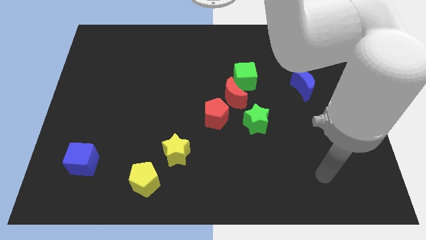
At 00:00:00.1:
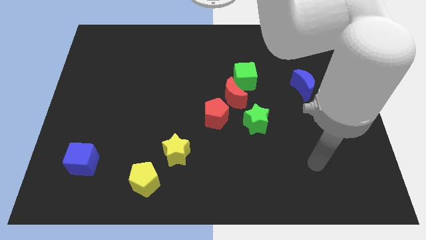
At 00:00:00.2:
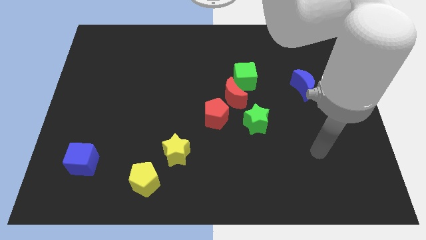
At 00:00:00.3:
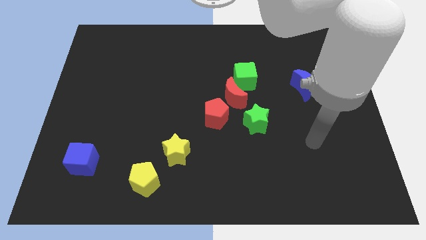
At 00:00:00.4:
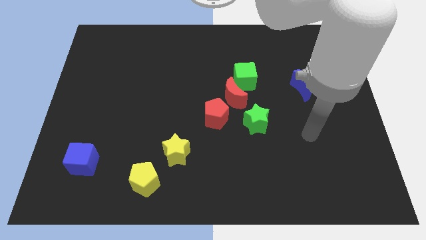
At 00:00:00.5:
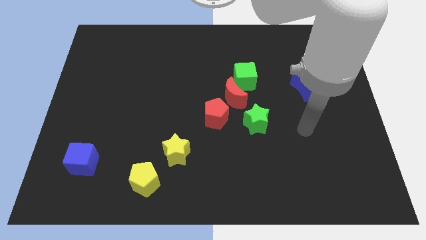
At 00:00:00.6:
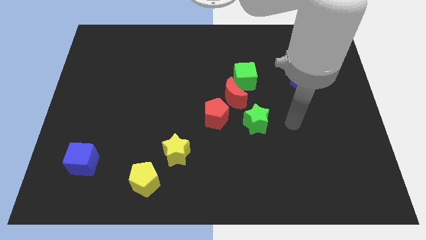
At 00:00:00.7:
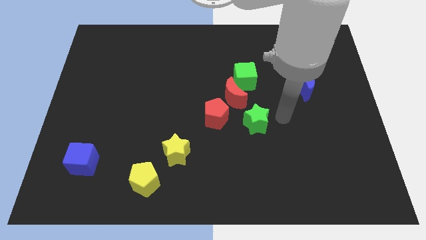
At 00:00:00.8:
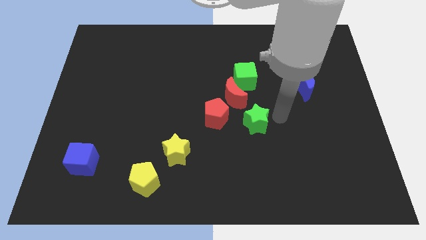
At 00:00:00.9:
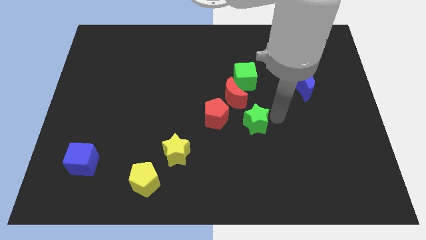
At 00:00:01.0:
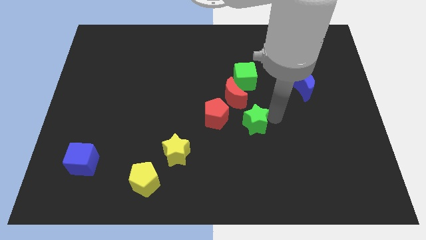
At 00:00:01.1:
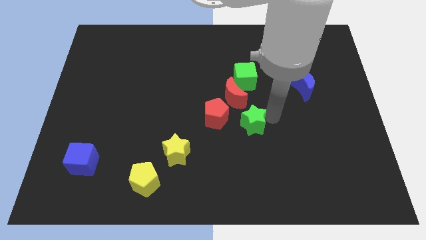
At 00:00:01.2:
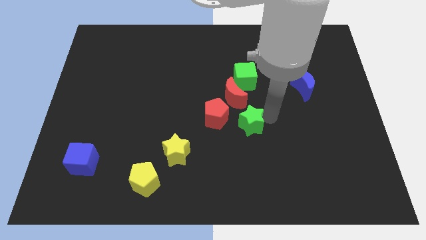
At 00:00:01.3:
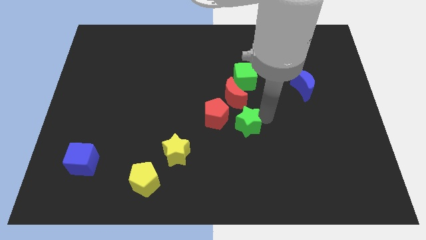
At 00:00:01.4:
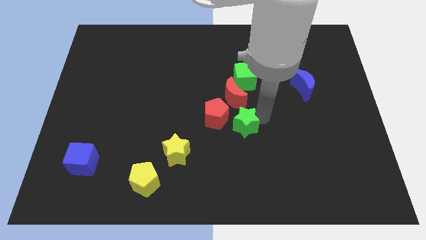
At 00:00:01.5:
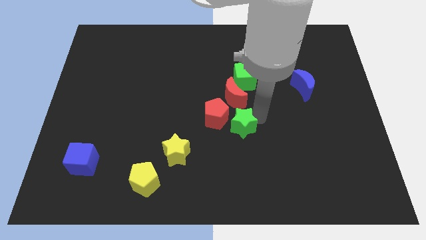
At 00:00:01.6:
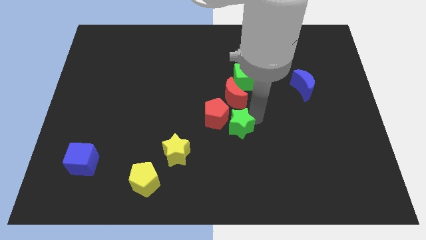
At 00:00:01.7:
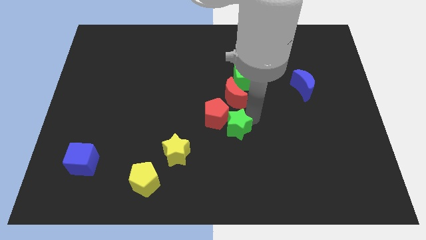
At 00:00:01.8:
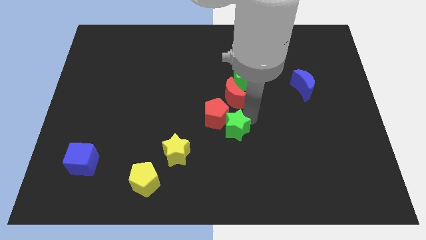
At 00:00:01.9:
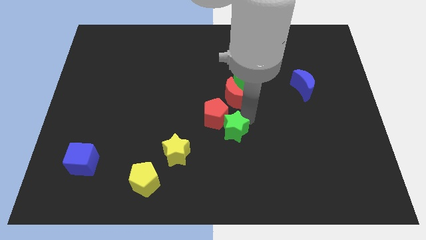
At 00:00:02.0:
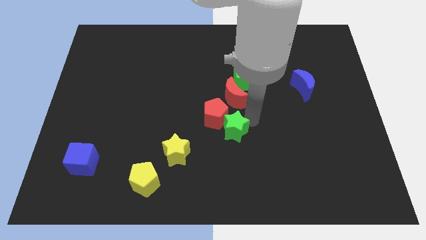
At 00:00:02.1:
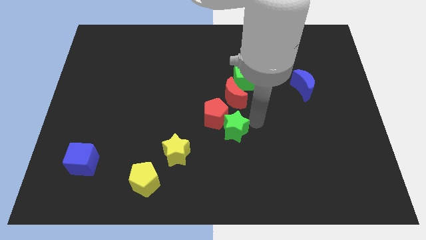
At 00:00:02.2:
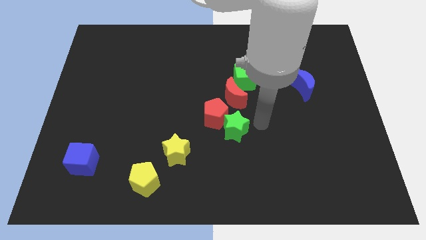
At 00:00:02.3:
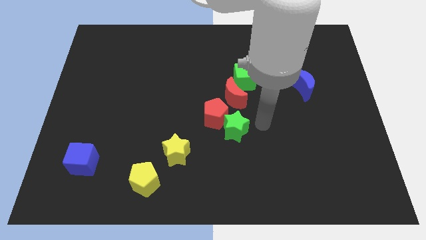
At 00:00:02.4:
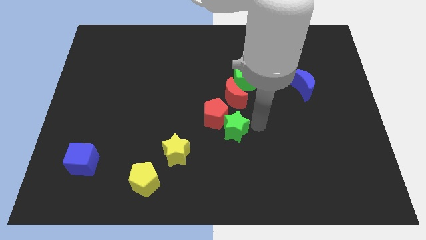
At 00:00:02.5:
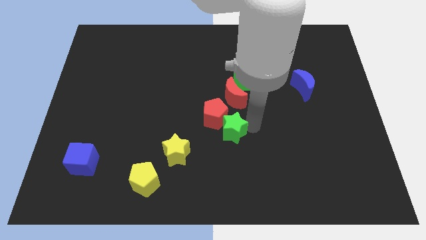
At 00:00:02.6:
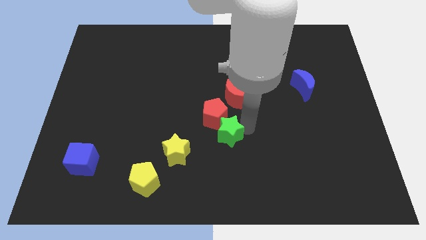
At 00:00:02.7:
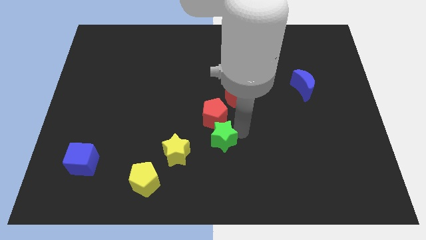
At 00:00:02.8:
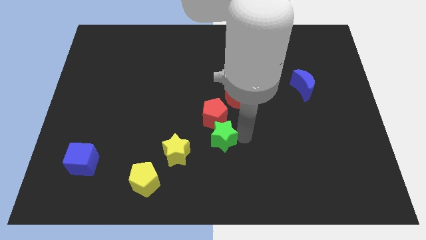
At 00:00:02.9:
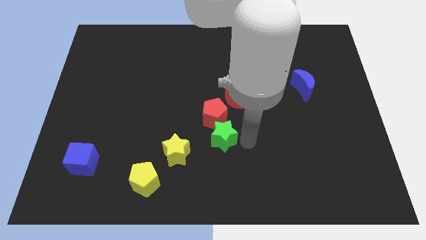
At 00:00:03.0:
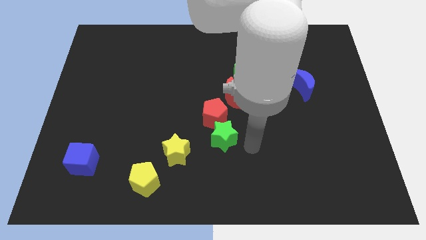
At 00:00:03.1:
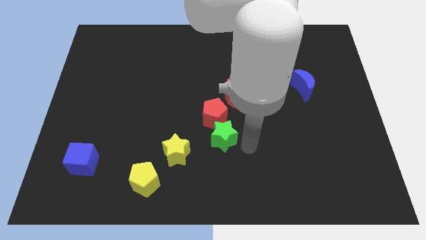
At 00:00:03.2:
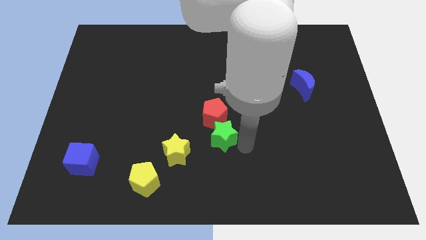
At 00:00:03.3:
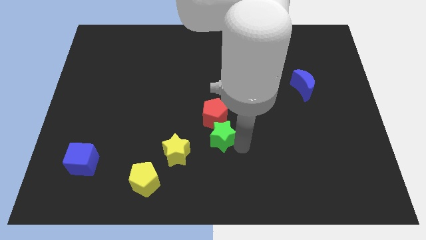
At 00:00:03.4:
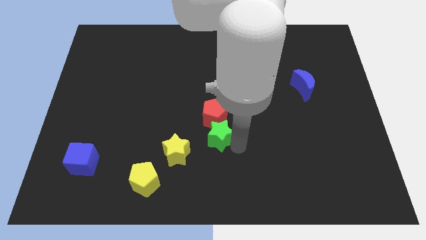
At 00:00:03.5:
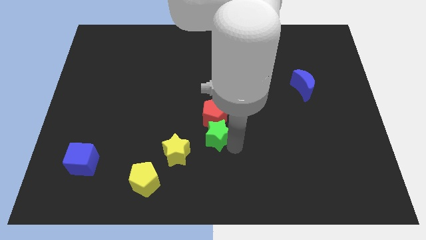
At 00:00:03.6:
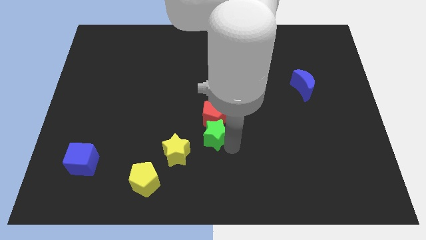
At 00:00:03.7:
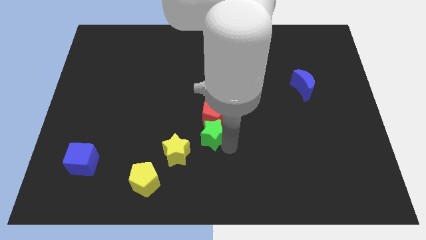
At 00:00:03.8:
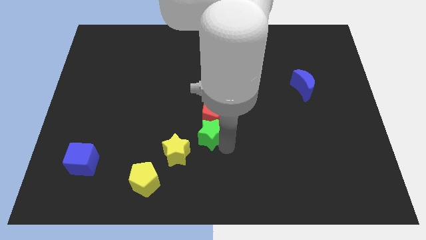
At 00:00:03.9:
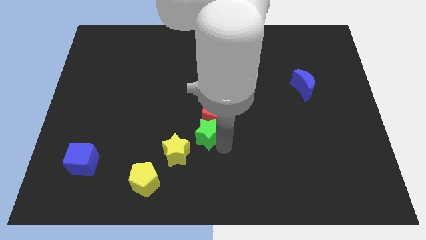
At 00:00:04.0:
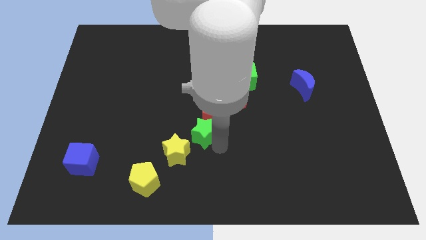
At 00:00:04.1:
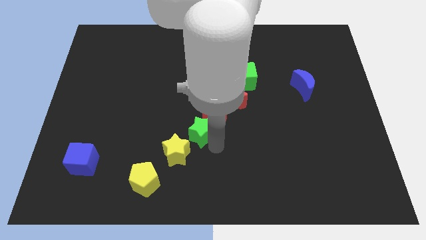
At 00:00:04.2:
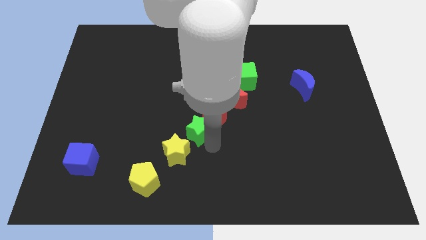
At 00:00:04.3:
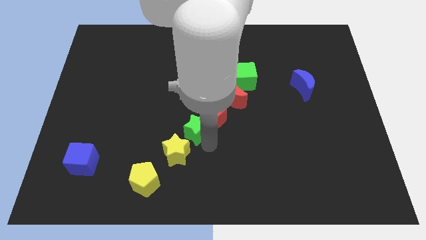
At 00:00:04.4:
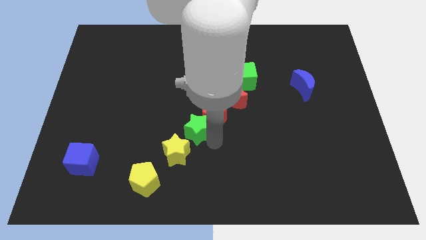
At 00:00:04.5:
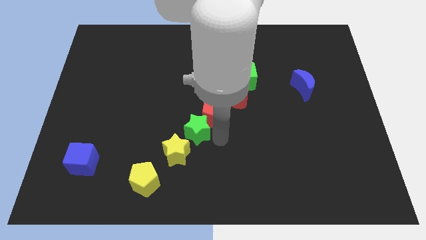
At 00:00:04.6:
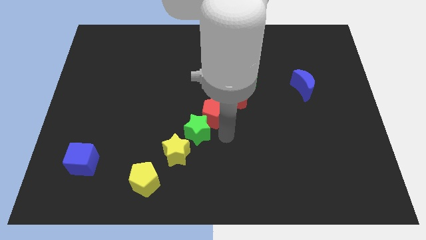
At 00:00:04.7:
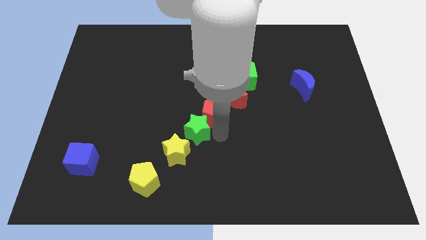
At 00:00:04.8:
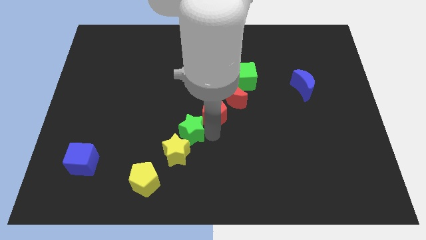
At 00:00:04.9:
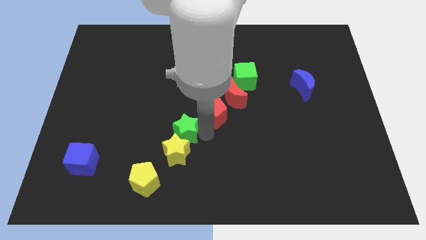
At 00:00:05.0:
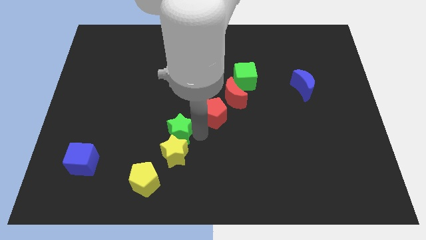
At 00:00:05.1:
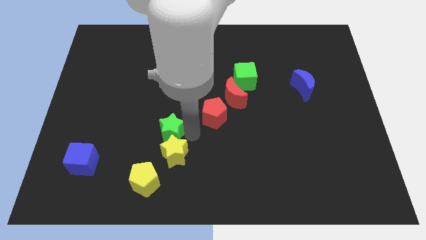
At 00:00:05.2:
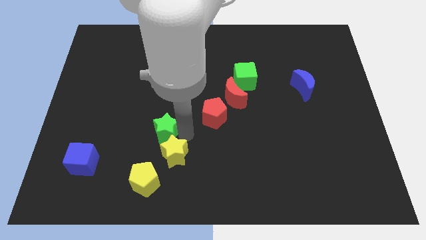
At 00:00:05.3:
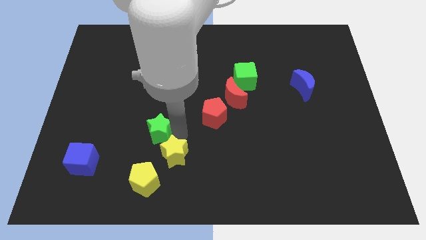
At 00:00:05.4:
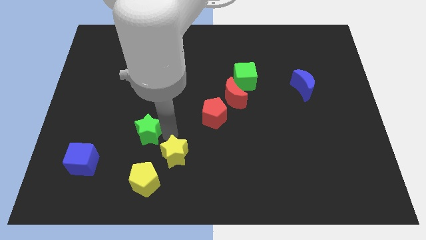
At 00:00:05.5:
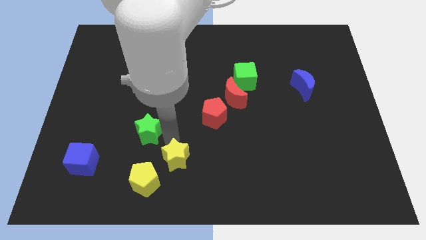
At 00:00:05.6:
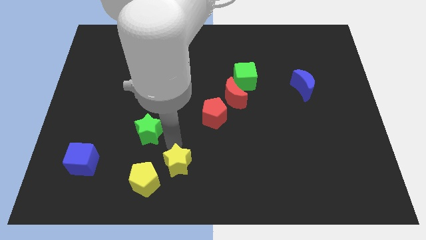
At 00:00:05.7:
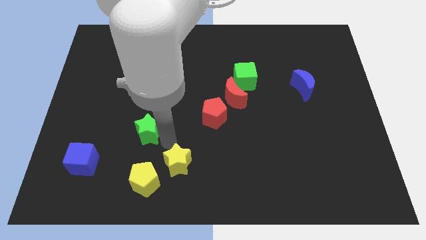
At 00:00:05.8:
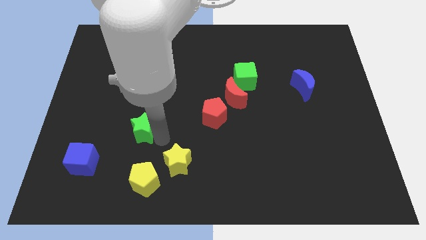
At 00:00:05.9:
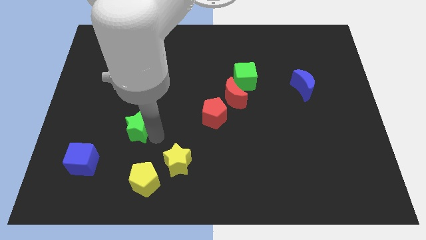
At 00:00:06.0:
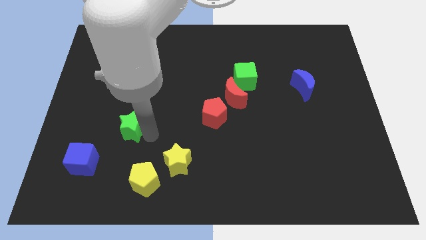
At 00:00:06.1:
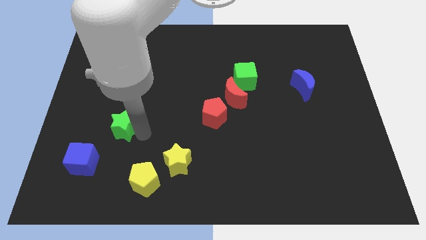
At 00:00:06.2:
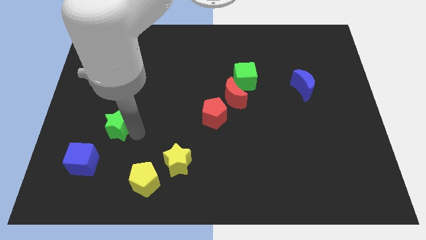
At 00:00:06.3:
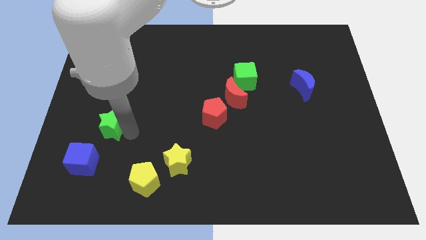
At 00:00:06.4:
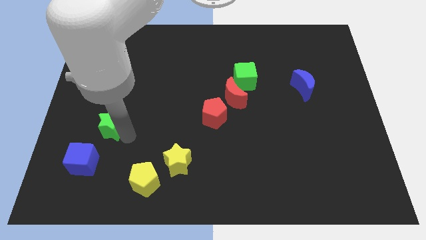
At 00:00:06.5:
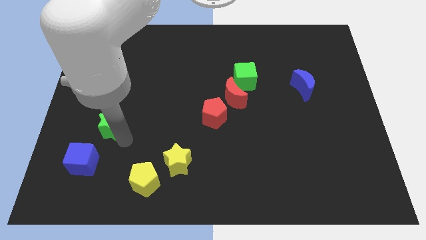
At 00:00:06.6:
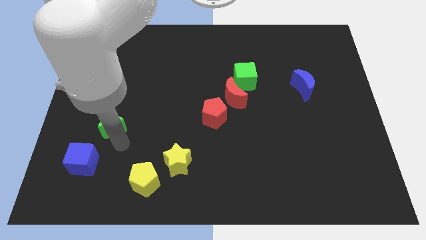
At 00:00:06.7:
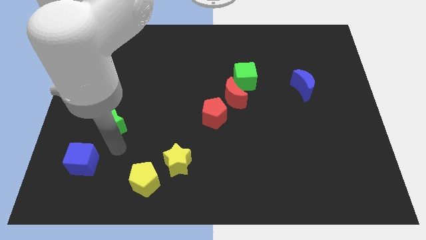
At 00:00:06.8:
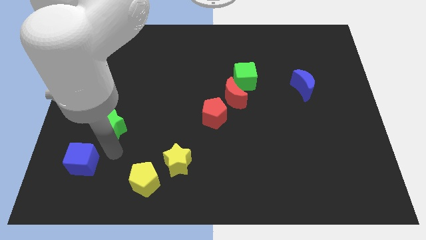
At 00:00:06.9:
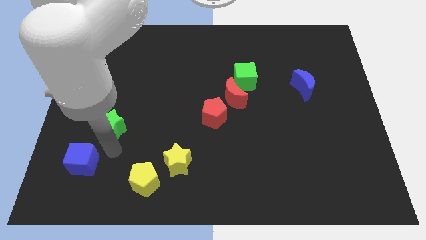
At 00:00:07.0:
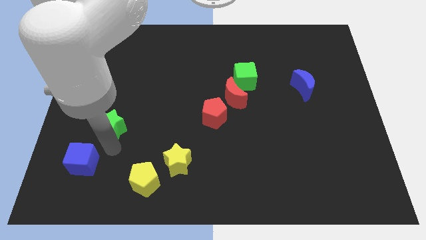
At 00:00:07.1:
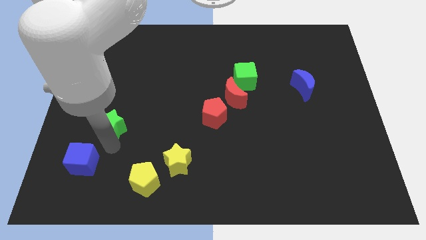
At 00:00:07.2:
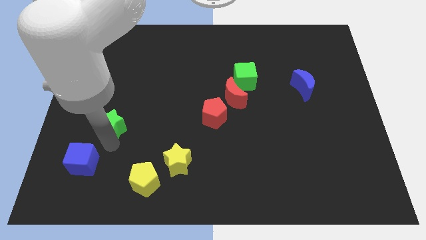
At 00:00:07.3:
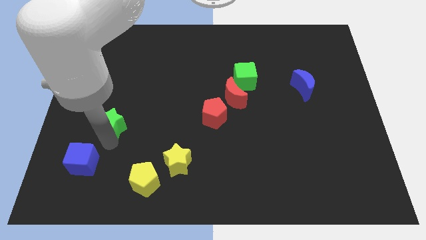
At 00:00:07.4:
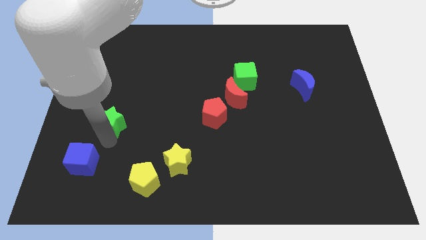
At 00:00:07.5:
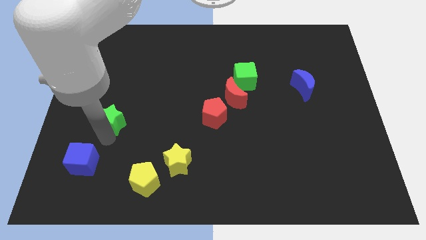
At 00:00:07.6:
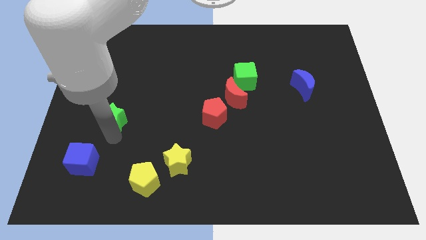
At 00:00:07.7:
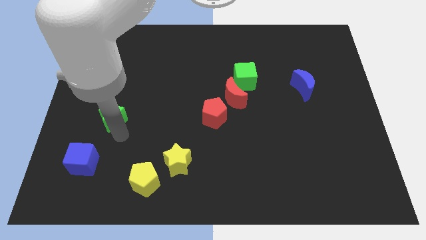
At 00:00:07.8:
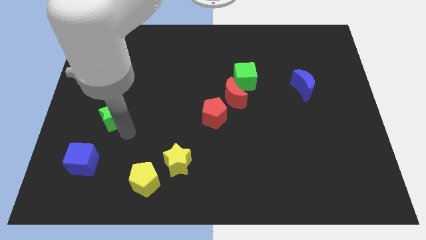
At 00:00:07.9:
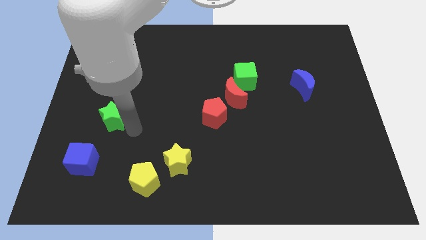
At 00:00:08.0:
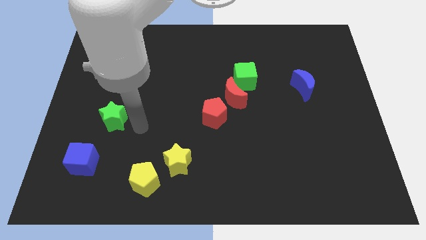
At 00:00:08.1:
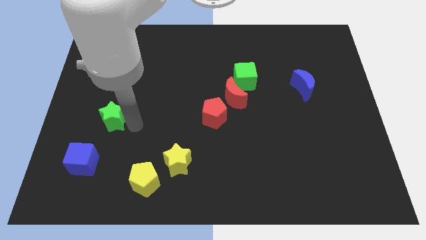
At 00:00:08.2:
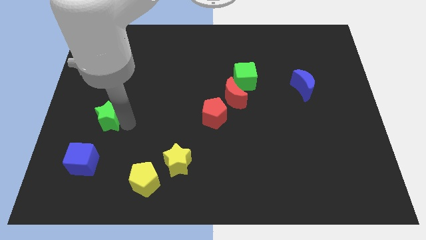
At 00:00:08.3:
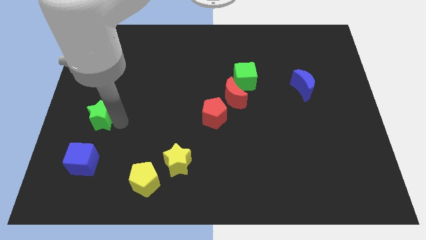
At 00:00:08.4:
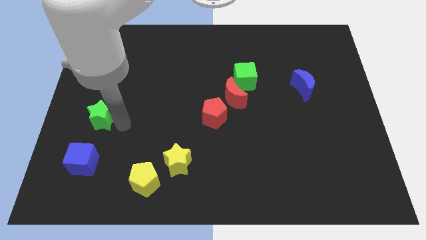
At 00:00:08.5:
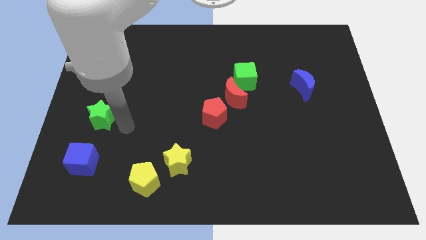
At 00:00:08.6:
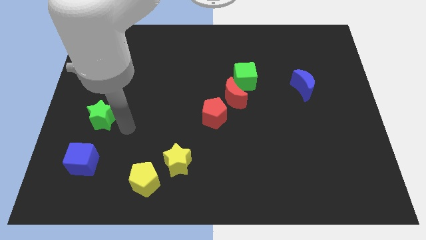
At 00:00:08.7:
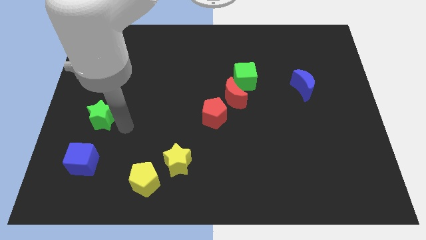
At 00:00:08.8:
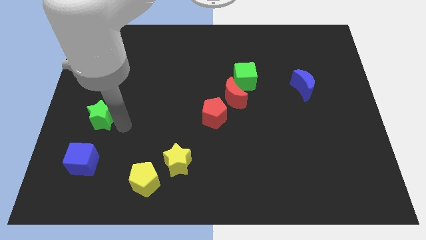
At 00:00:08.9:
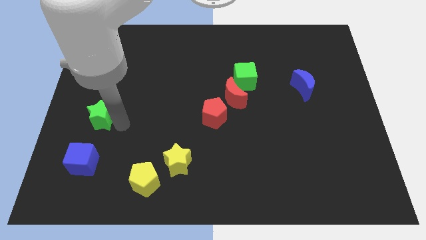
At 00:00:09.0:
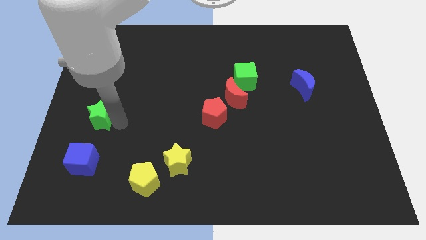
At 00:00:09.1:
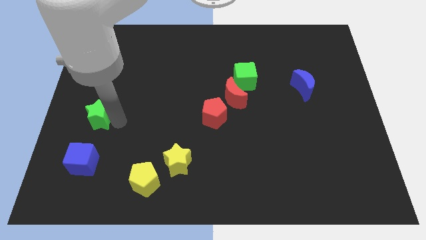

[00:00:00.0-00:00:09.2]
put the green star to the left side
